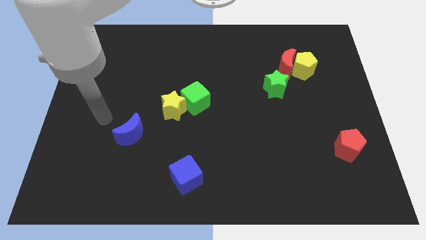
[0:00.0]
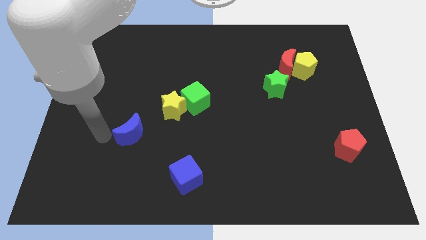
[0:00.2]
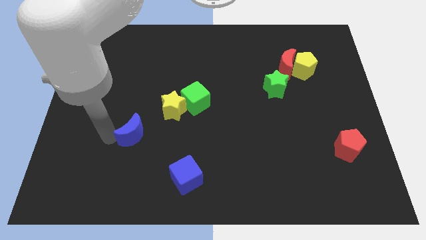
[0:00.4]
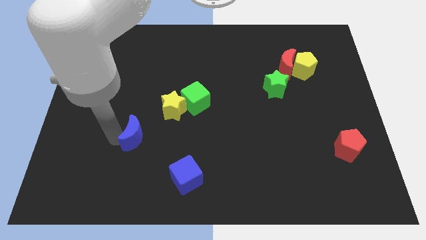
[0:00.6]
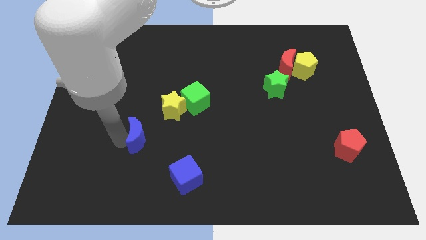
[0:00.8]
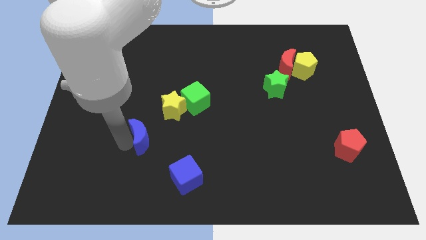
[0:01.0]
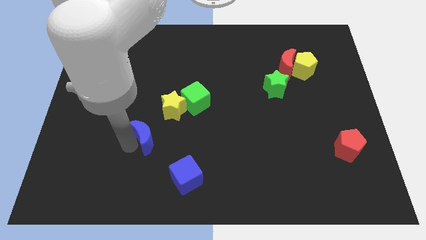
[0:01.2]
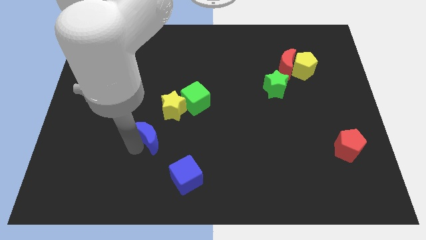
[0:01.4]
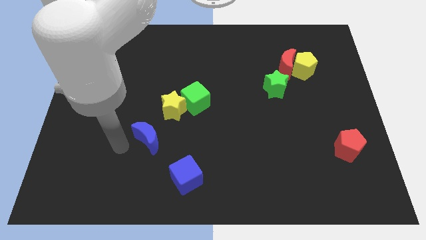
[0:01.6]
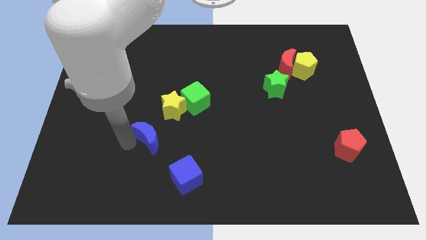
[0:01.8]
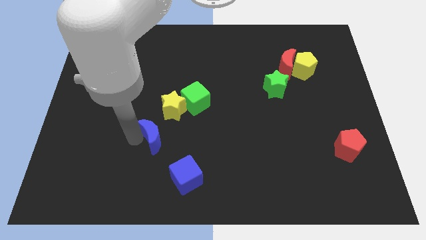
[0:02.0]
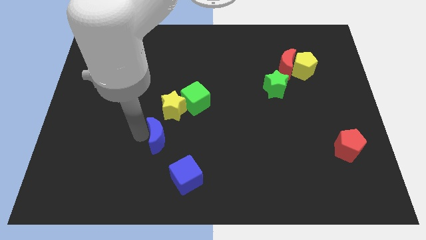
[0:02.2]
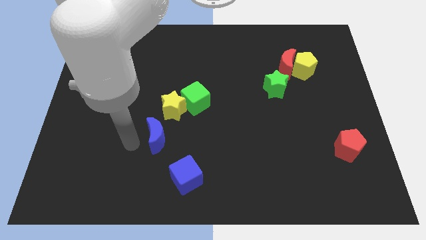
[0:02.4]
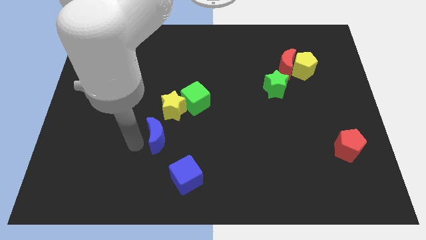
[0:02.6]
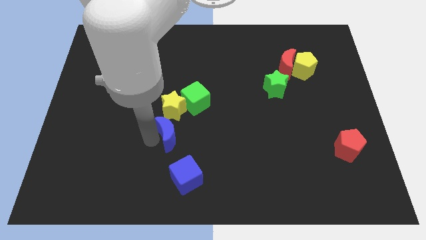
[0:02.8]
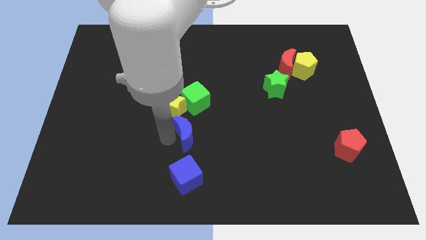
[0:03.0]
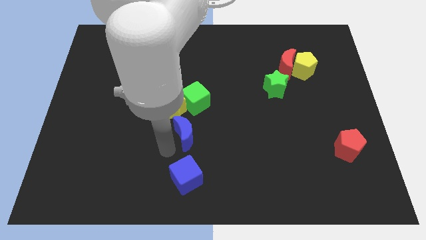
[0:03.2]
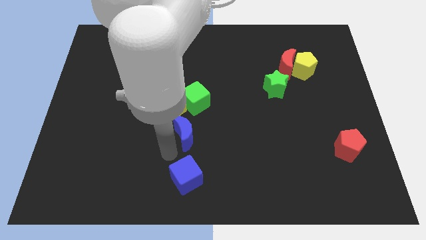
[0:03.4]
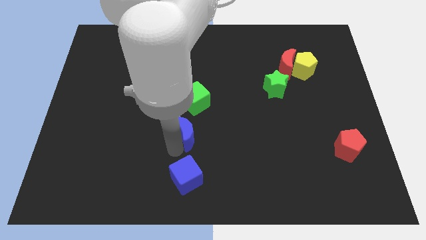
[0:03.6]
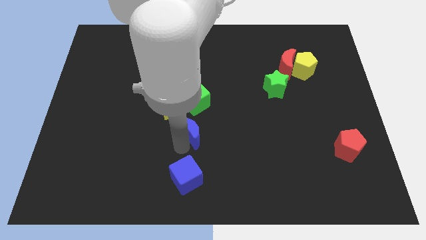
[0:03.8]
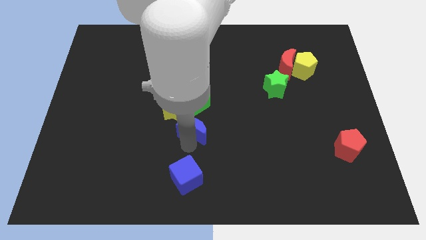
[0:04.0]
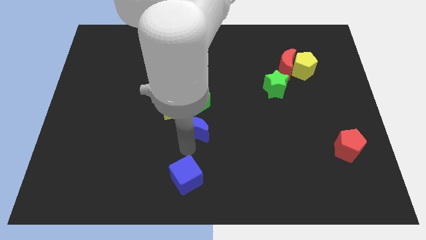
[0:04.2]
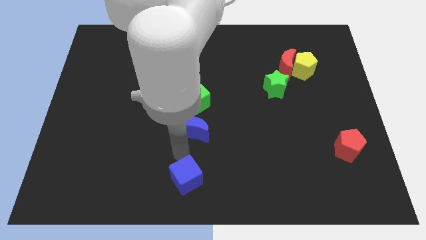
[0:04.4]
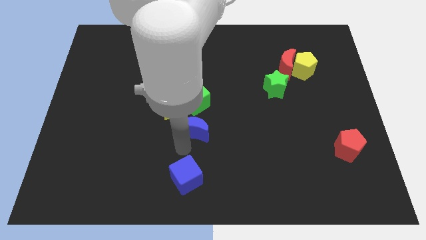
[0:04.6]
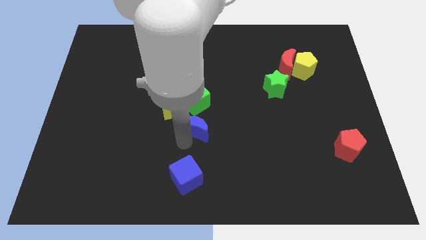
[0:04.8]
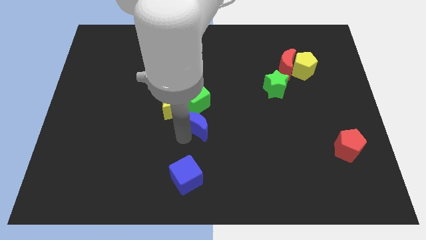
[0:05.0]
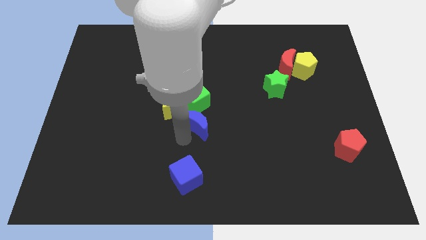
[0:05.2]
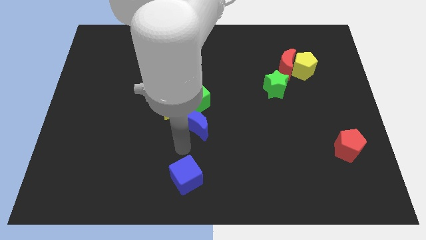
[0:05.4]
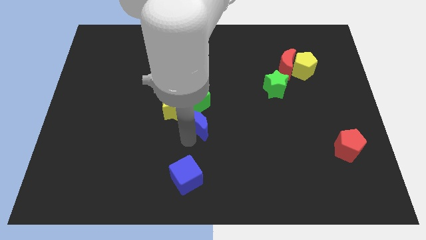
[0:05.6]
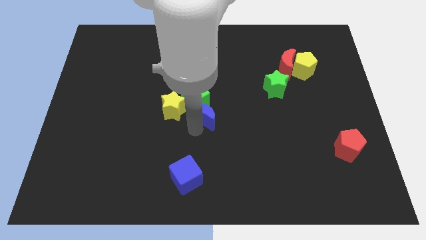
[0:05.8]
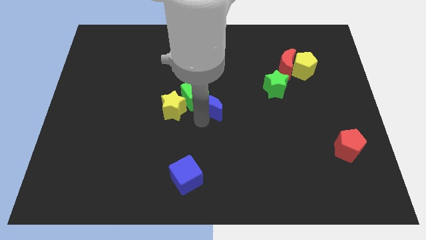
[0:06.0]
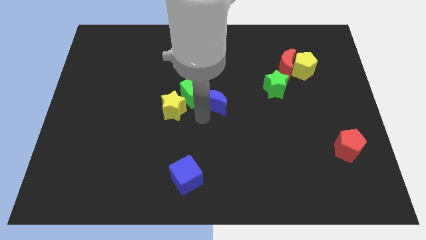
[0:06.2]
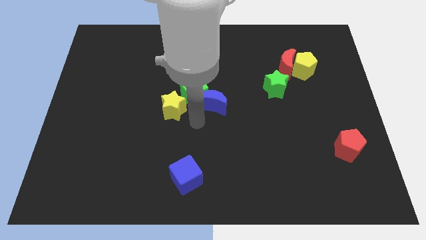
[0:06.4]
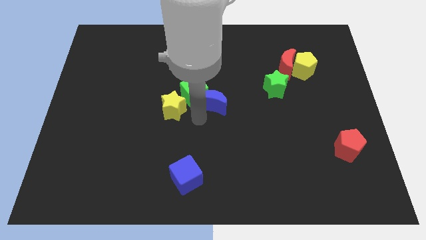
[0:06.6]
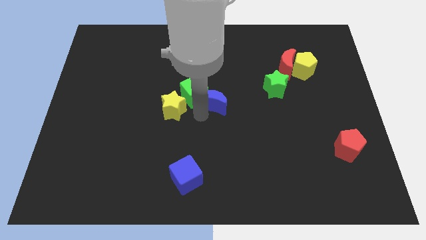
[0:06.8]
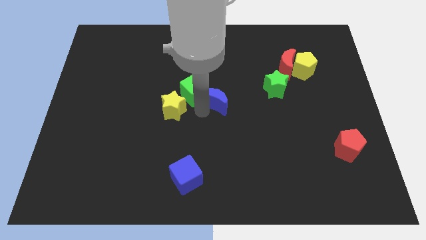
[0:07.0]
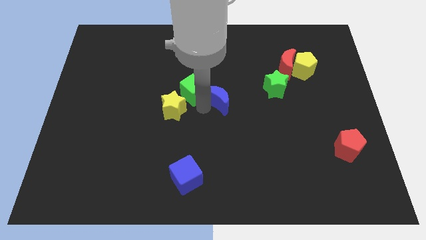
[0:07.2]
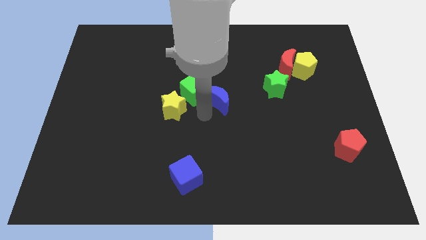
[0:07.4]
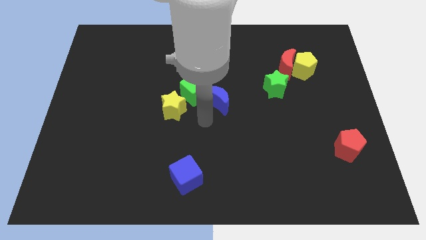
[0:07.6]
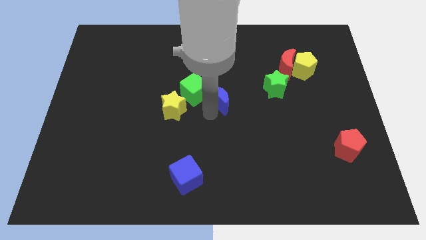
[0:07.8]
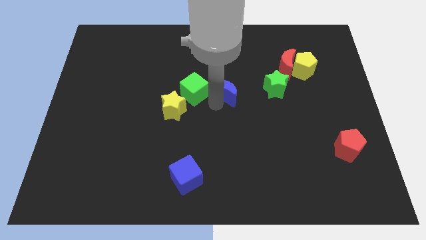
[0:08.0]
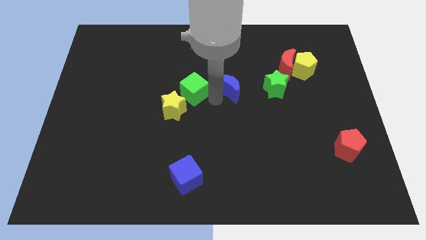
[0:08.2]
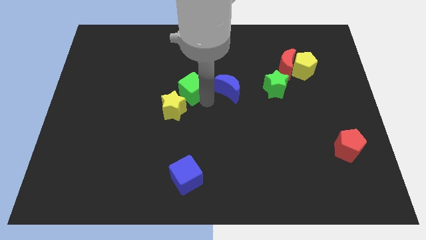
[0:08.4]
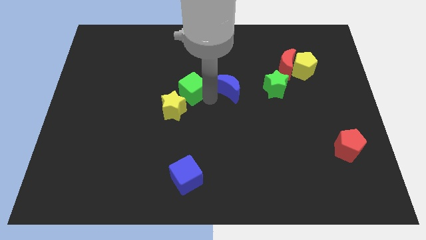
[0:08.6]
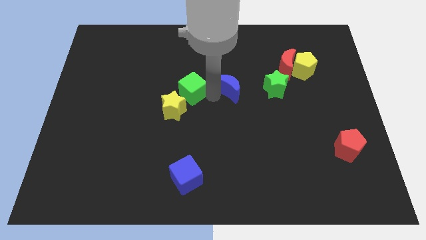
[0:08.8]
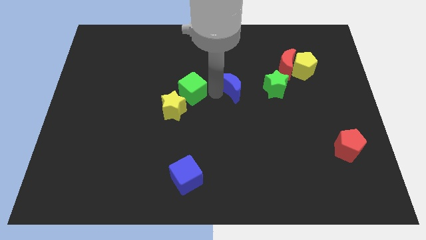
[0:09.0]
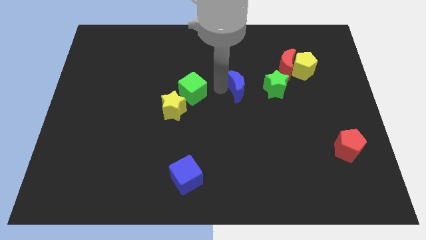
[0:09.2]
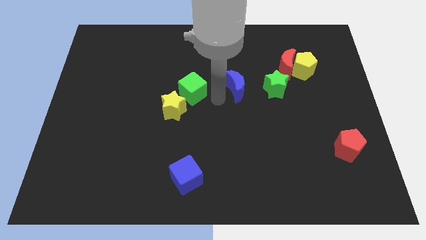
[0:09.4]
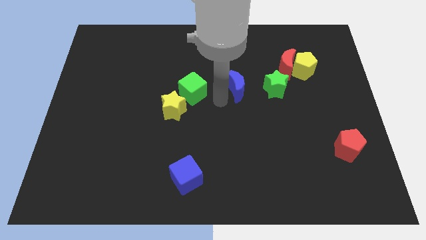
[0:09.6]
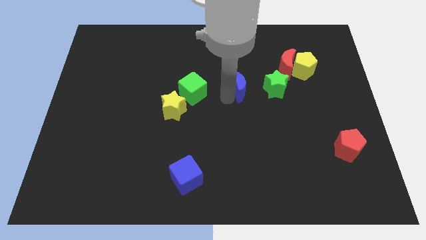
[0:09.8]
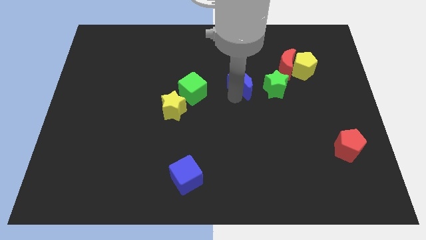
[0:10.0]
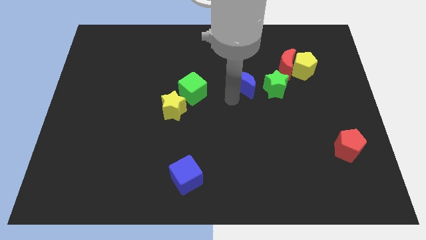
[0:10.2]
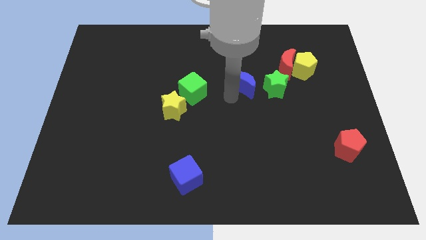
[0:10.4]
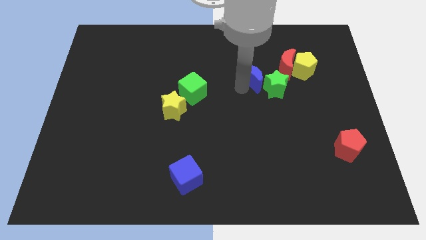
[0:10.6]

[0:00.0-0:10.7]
push the blue moon to the left side of the yellow pentagon

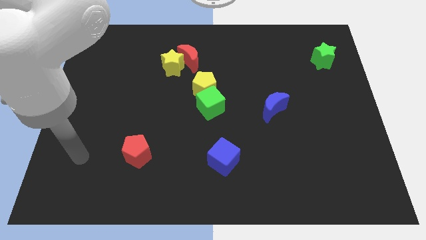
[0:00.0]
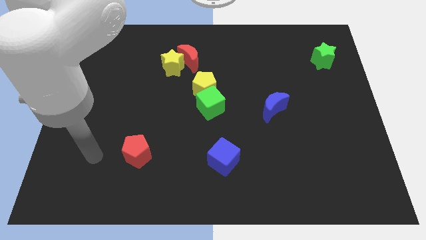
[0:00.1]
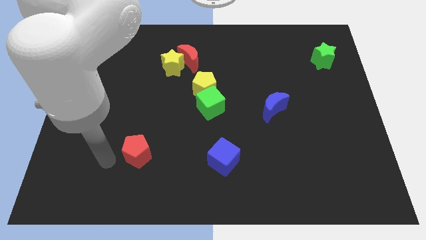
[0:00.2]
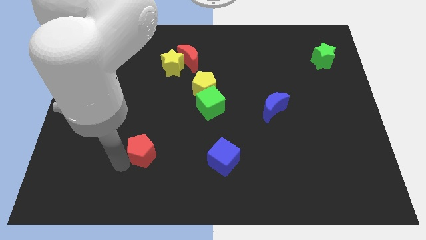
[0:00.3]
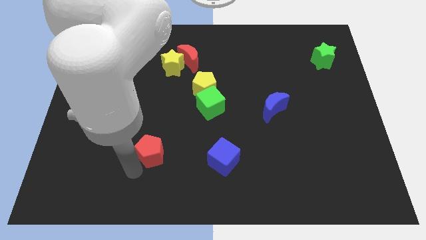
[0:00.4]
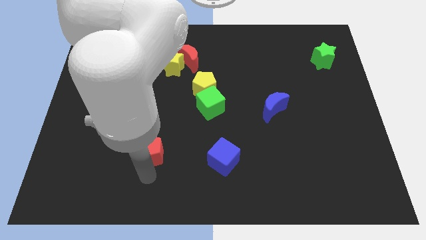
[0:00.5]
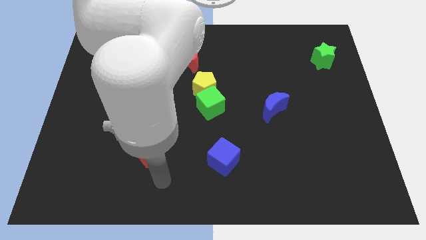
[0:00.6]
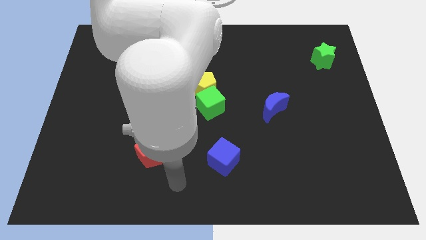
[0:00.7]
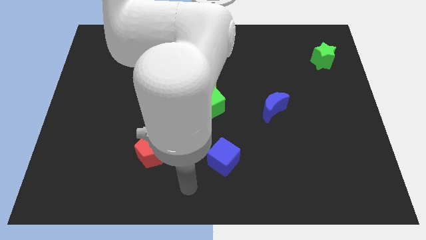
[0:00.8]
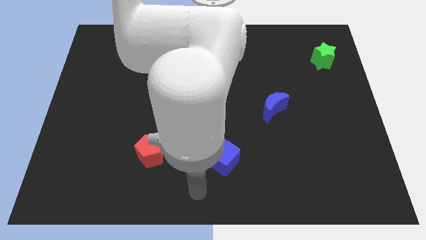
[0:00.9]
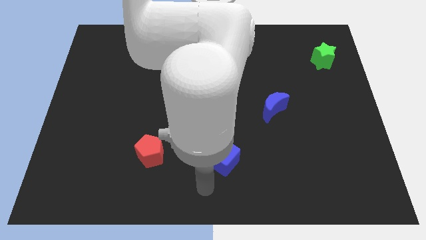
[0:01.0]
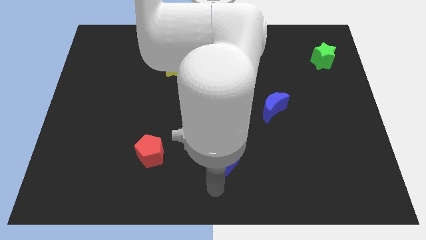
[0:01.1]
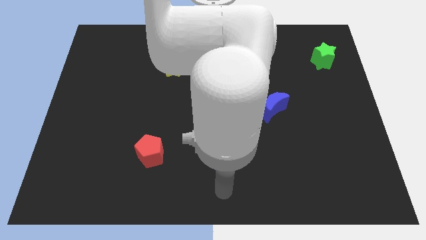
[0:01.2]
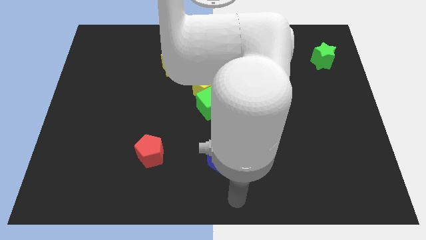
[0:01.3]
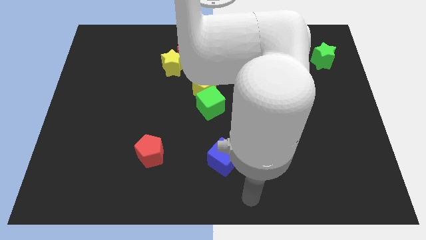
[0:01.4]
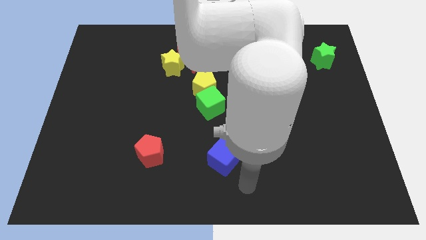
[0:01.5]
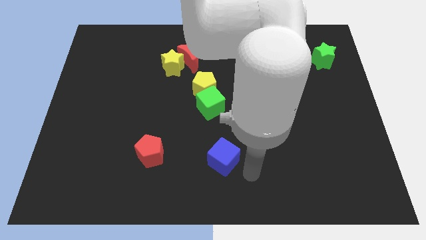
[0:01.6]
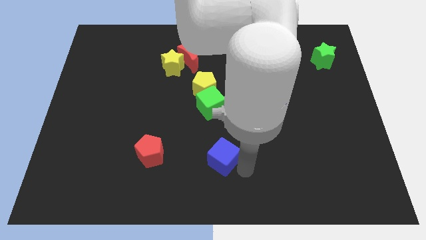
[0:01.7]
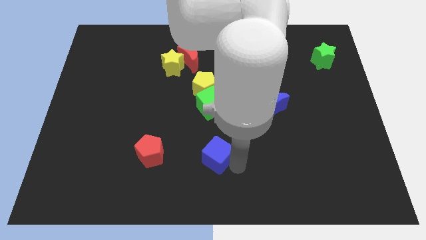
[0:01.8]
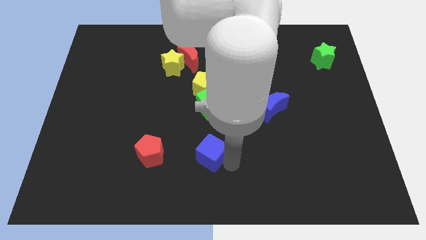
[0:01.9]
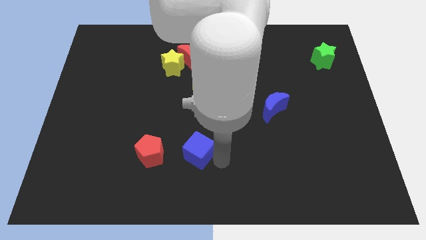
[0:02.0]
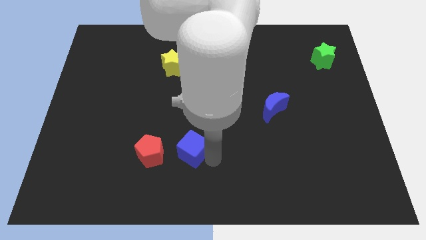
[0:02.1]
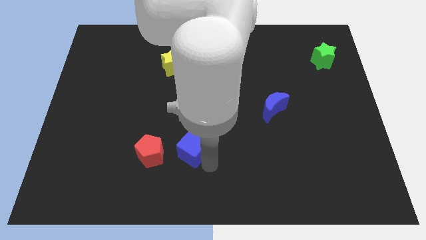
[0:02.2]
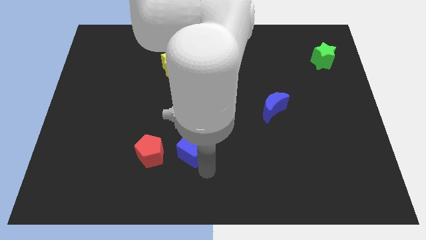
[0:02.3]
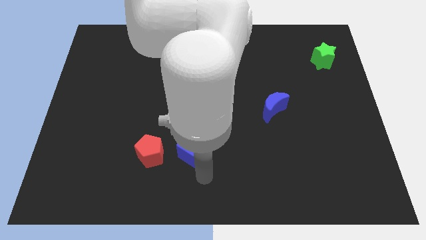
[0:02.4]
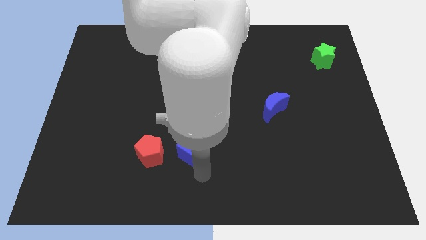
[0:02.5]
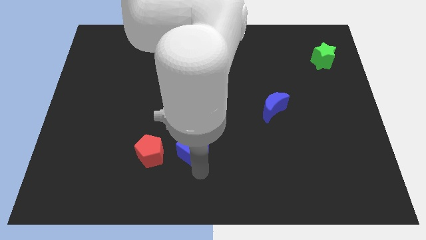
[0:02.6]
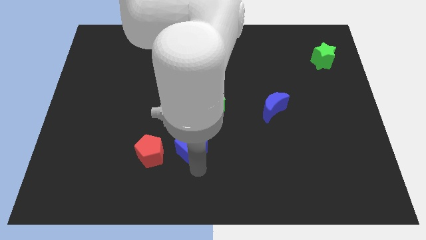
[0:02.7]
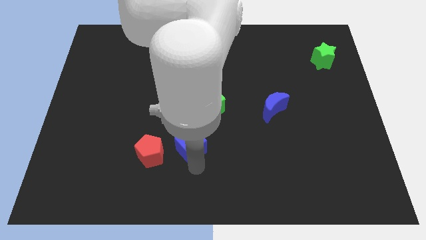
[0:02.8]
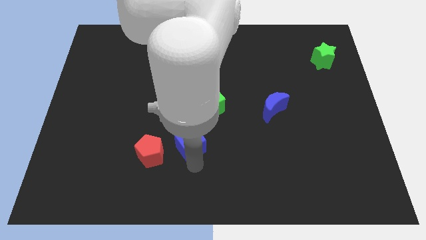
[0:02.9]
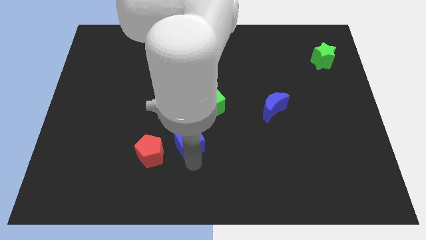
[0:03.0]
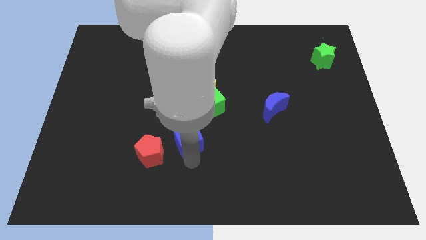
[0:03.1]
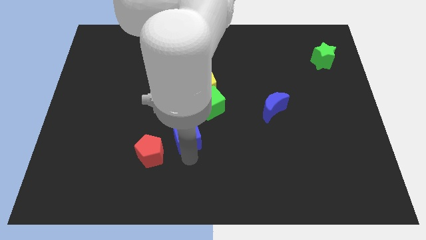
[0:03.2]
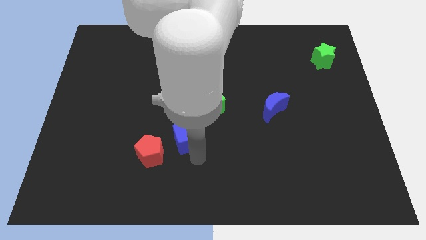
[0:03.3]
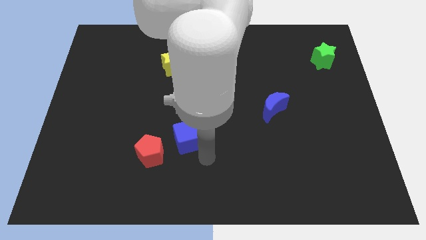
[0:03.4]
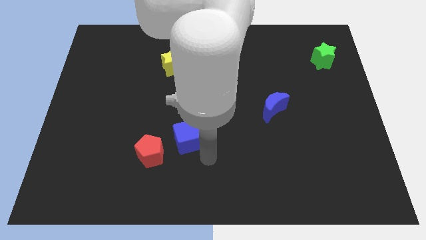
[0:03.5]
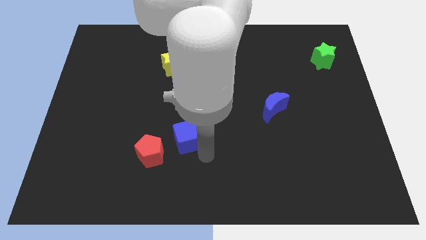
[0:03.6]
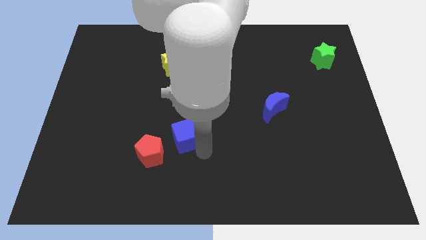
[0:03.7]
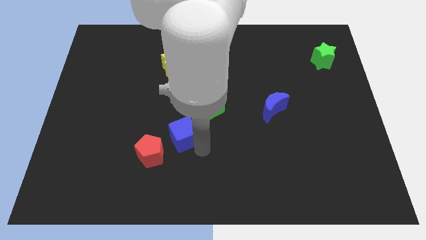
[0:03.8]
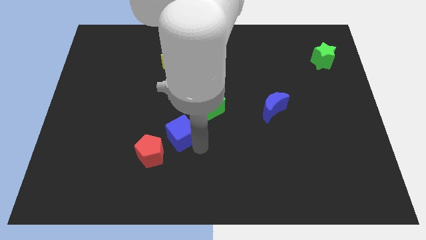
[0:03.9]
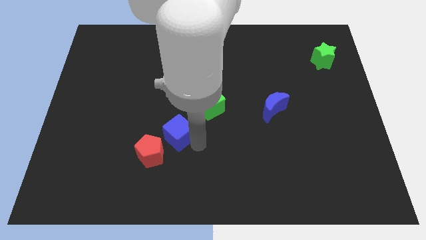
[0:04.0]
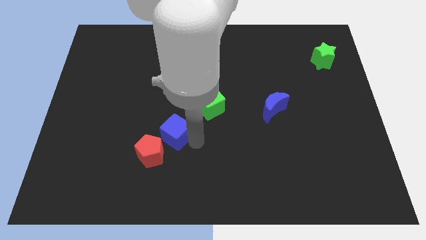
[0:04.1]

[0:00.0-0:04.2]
move the blue cube to the top side of the red pentagon
